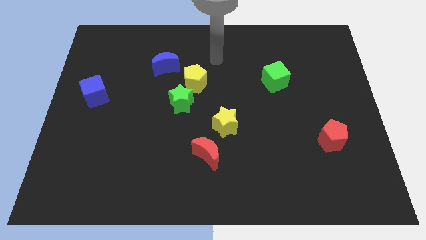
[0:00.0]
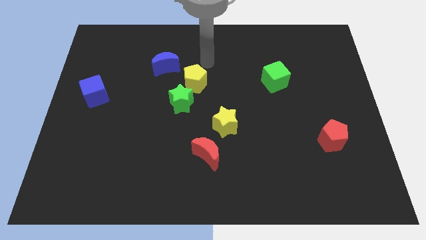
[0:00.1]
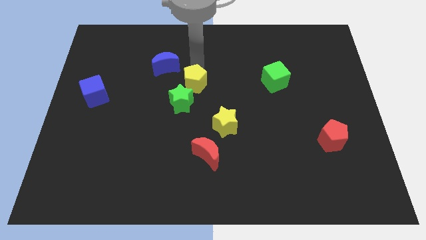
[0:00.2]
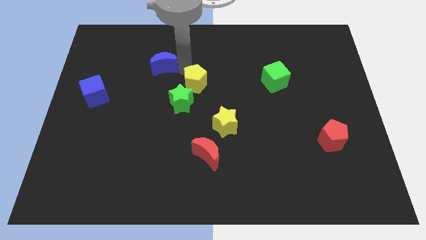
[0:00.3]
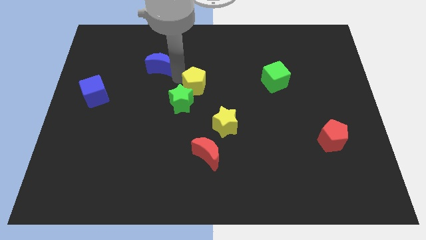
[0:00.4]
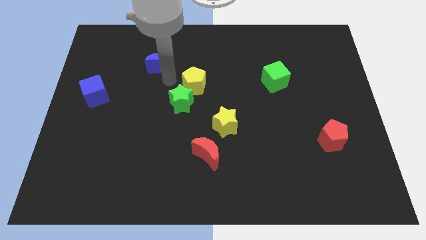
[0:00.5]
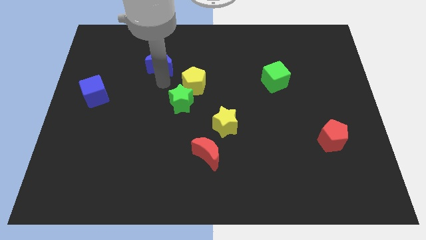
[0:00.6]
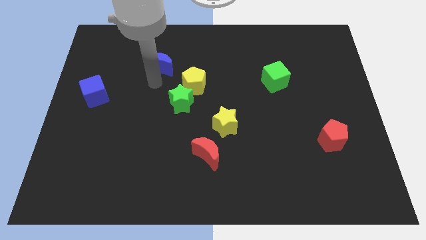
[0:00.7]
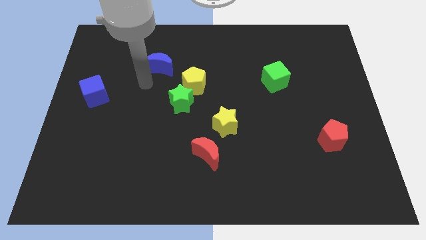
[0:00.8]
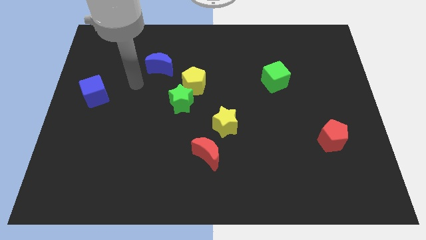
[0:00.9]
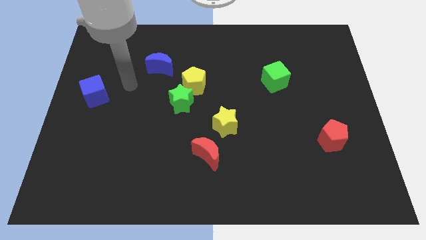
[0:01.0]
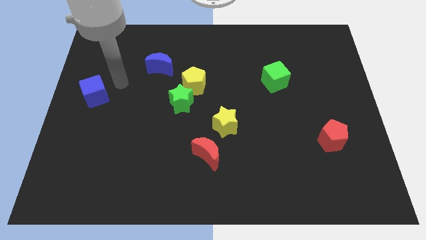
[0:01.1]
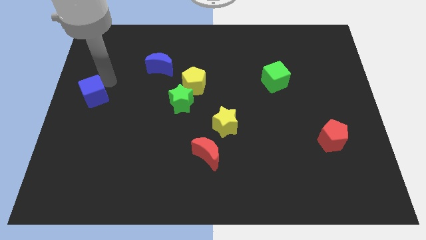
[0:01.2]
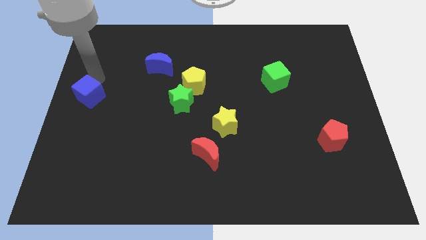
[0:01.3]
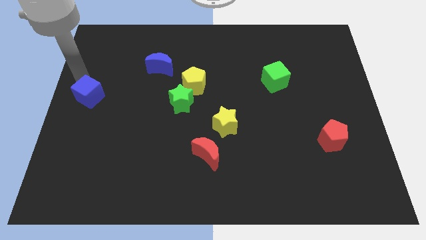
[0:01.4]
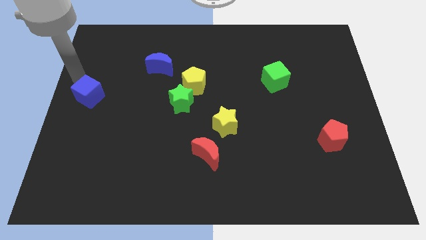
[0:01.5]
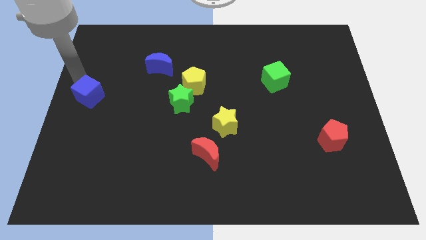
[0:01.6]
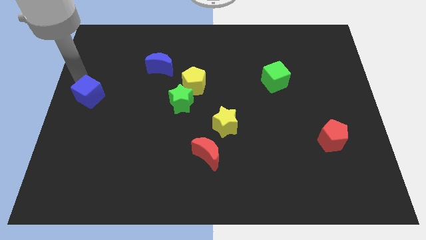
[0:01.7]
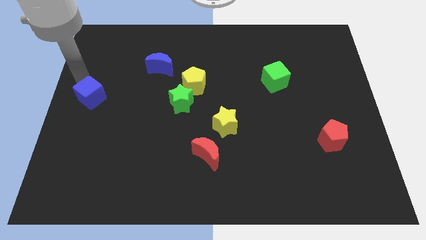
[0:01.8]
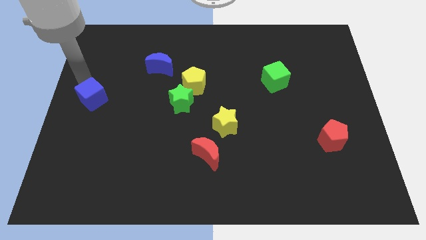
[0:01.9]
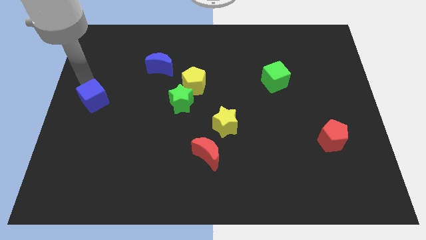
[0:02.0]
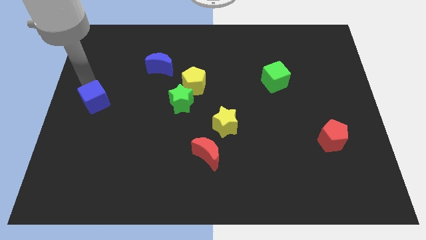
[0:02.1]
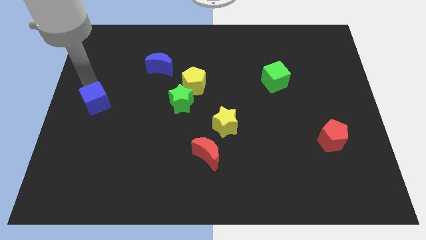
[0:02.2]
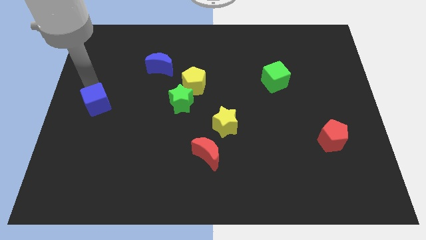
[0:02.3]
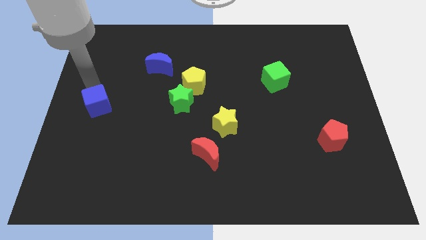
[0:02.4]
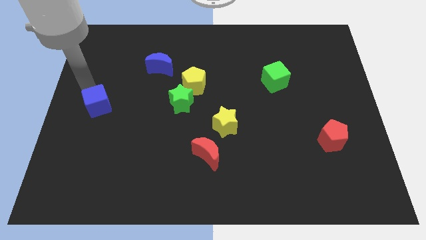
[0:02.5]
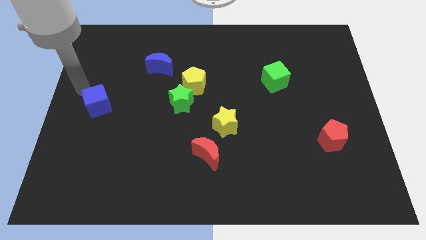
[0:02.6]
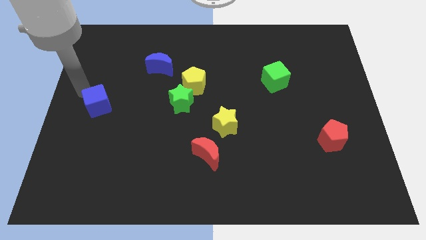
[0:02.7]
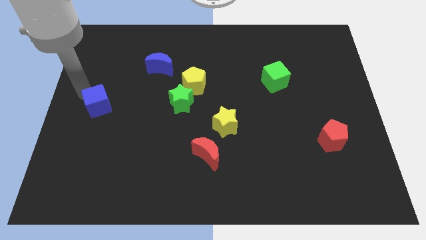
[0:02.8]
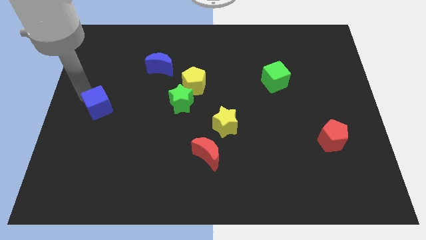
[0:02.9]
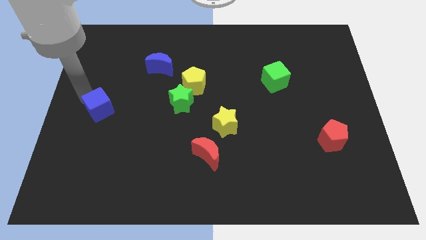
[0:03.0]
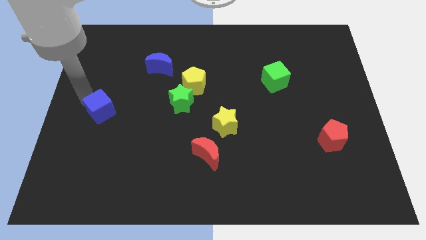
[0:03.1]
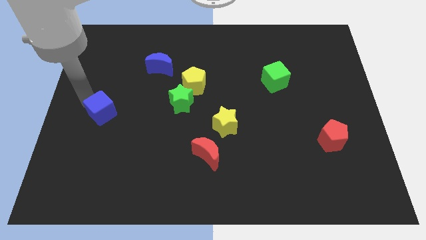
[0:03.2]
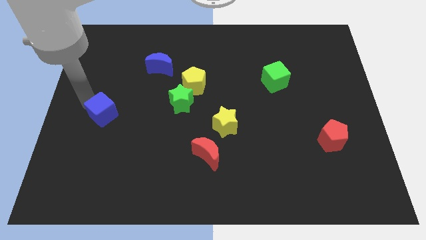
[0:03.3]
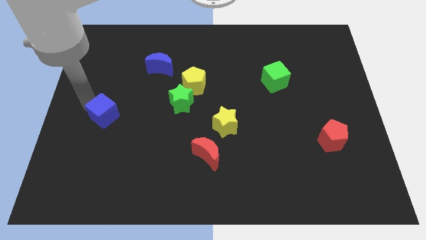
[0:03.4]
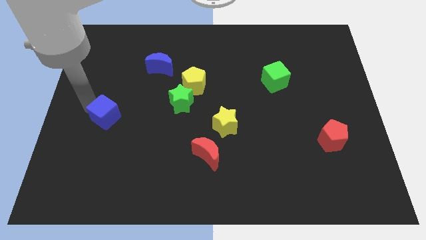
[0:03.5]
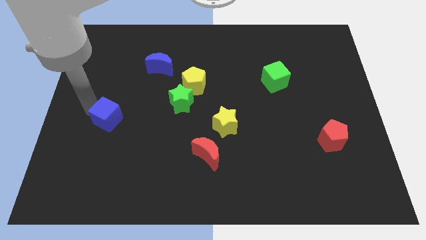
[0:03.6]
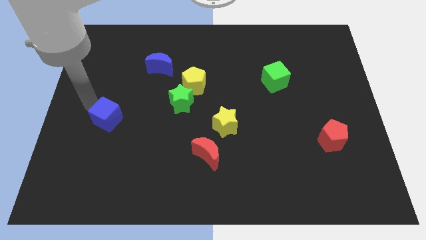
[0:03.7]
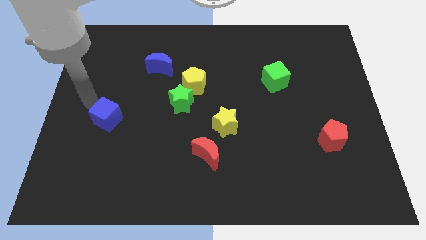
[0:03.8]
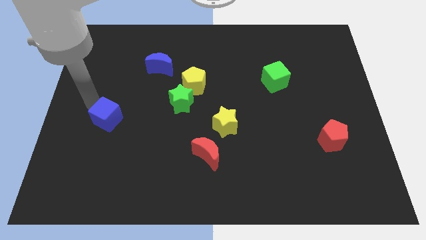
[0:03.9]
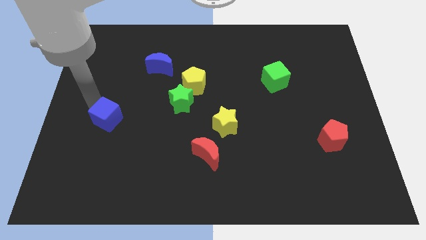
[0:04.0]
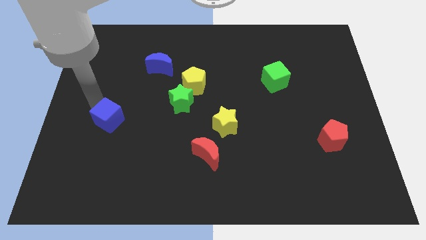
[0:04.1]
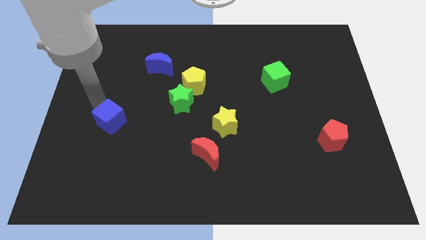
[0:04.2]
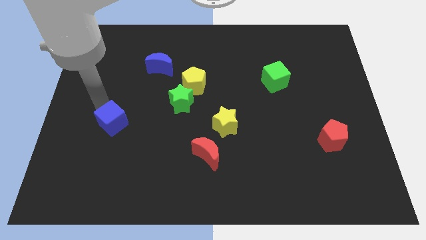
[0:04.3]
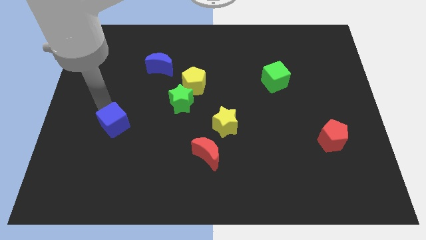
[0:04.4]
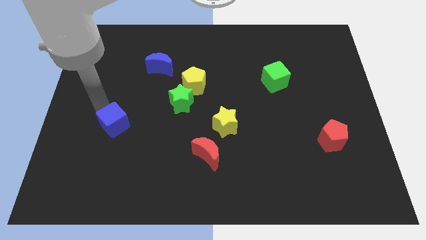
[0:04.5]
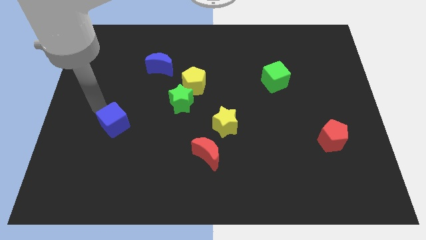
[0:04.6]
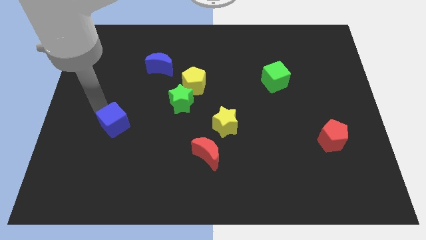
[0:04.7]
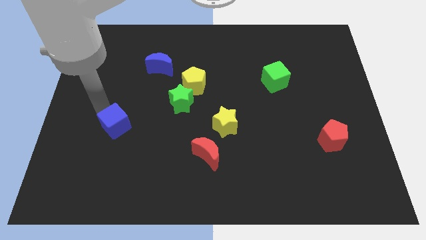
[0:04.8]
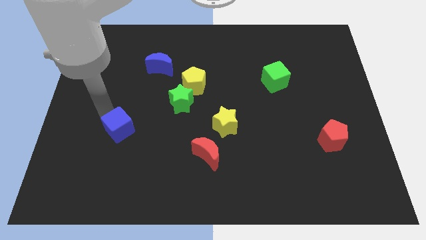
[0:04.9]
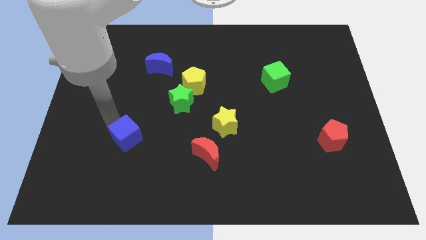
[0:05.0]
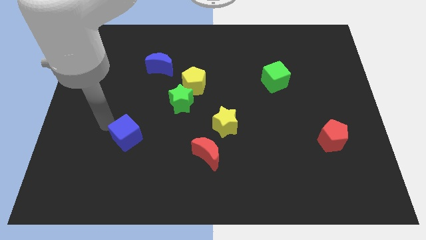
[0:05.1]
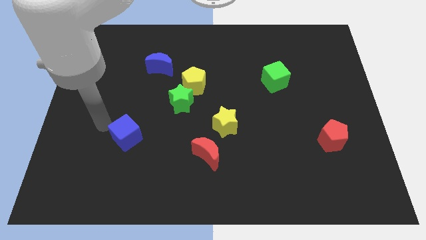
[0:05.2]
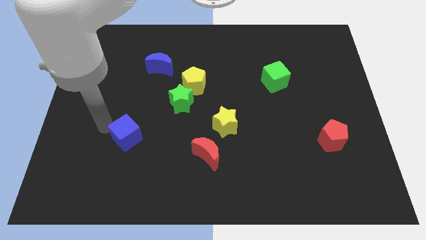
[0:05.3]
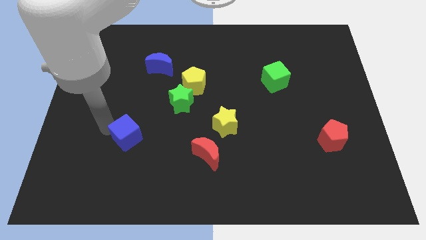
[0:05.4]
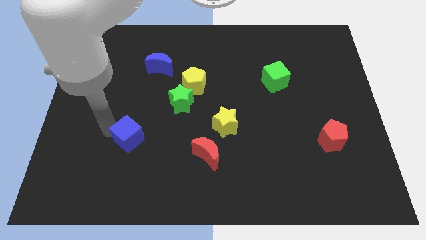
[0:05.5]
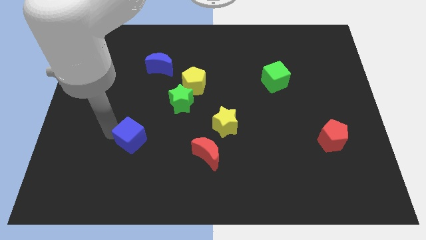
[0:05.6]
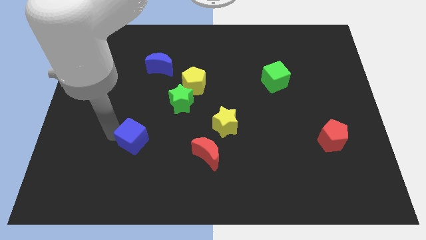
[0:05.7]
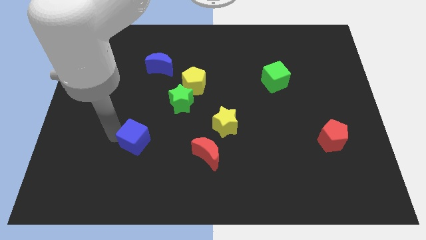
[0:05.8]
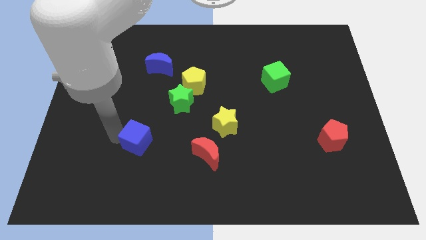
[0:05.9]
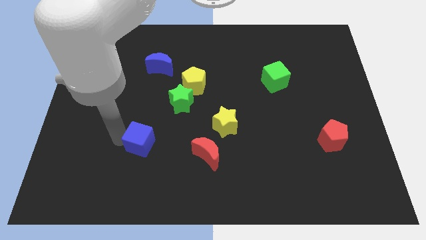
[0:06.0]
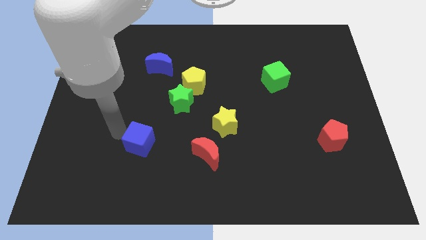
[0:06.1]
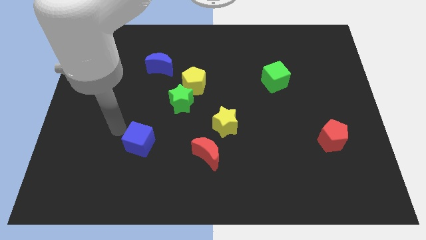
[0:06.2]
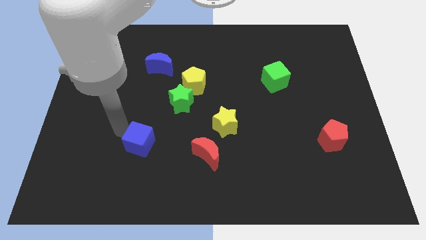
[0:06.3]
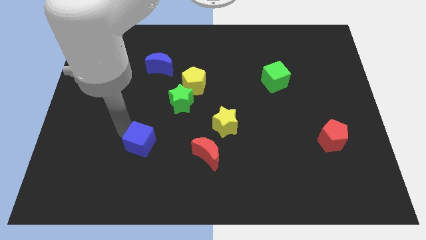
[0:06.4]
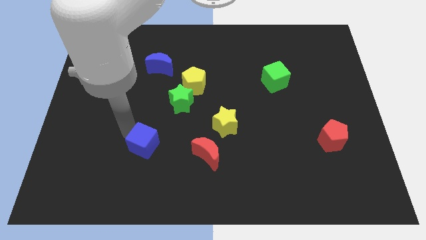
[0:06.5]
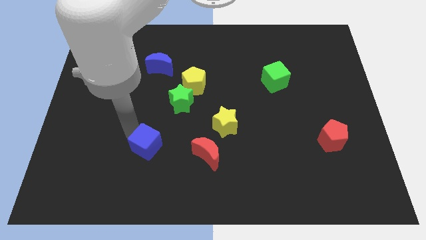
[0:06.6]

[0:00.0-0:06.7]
slide the blue cube downwards and right diagonally

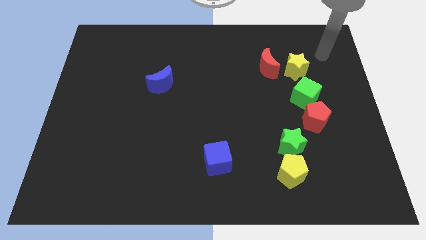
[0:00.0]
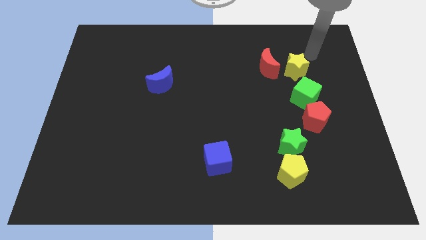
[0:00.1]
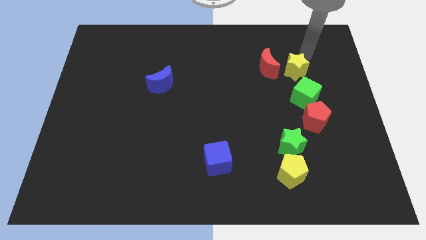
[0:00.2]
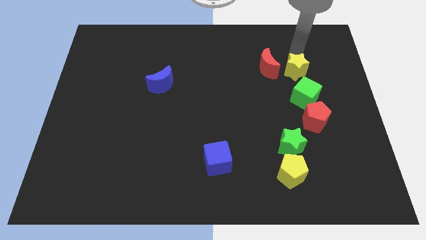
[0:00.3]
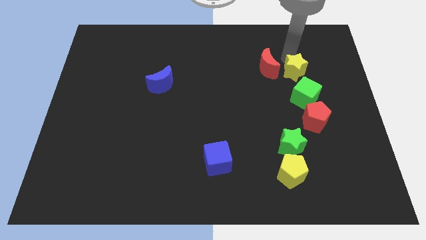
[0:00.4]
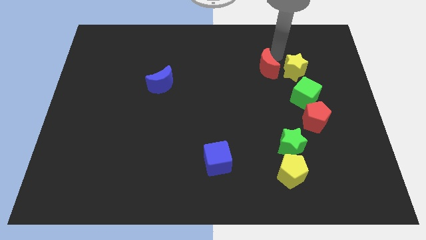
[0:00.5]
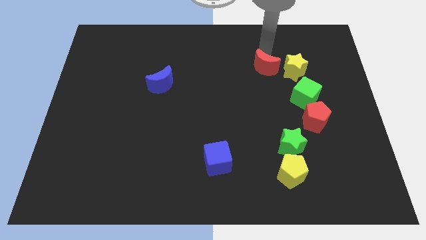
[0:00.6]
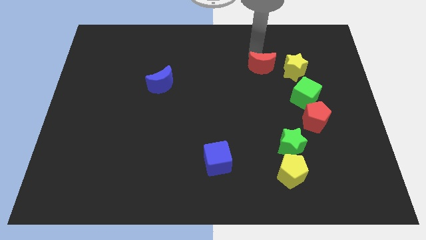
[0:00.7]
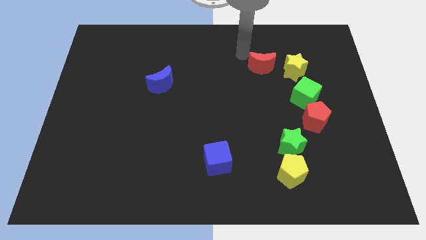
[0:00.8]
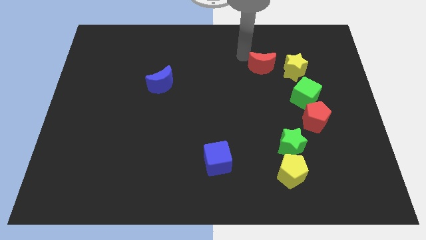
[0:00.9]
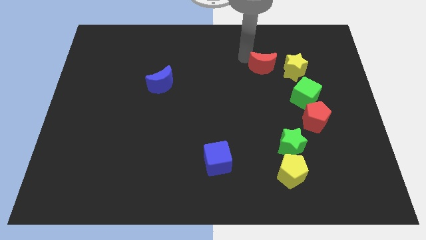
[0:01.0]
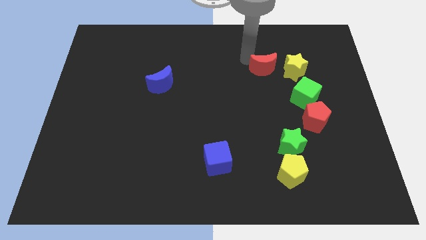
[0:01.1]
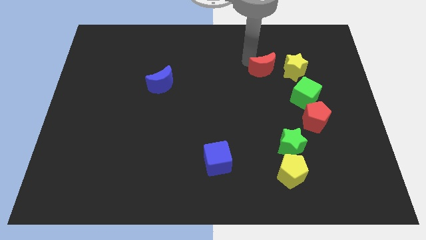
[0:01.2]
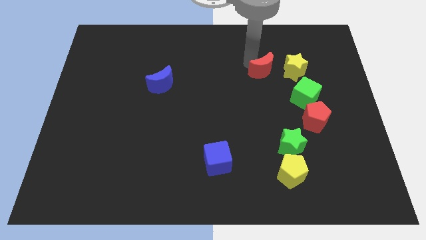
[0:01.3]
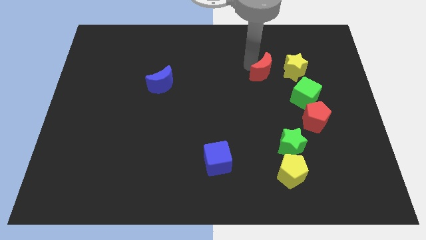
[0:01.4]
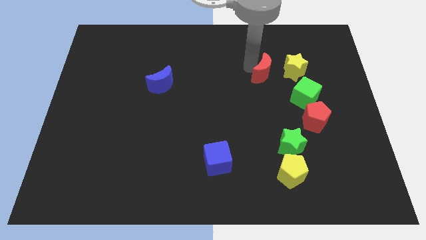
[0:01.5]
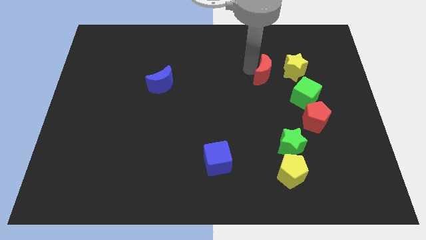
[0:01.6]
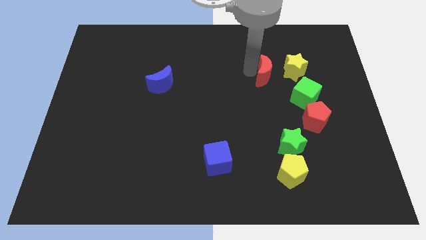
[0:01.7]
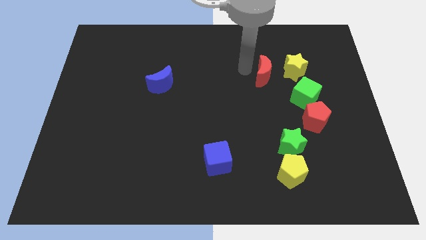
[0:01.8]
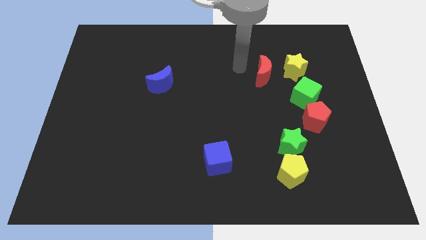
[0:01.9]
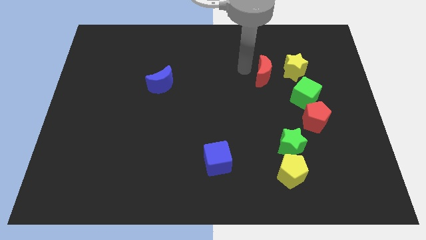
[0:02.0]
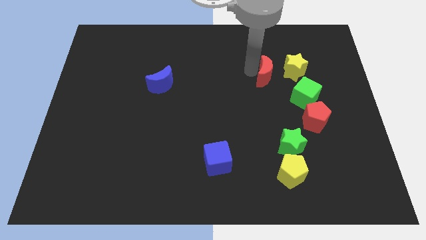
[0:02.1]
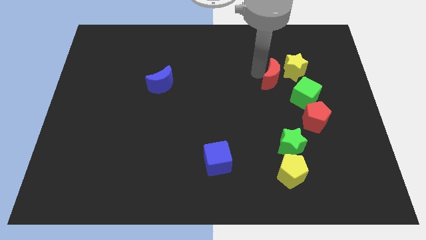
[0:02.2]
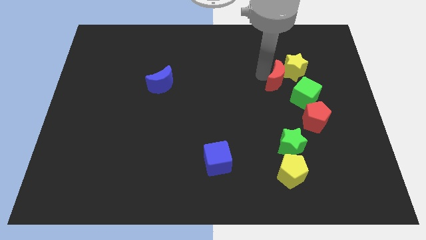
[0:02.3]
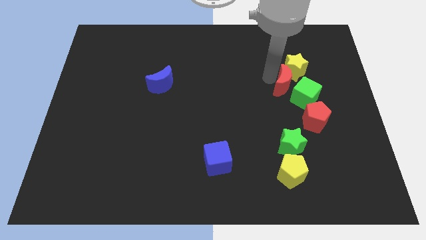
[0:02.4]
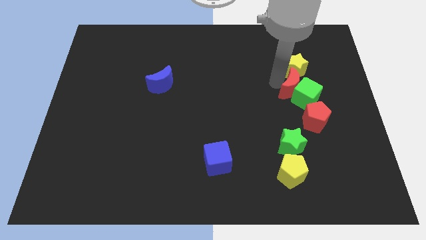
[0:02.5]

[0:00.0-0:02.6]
slightly slide the red moon diagonally down and right
